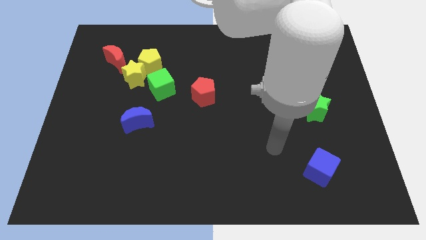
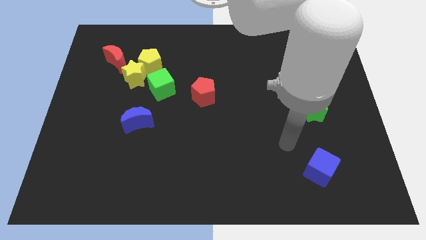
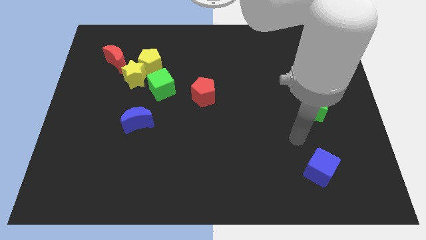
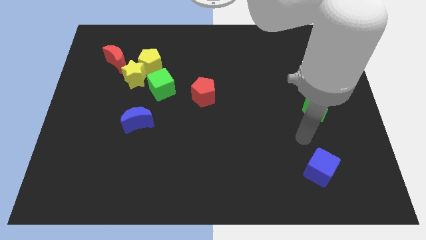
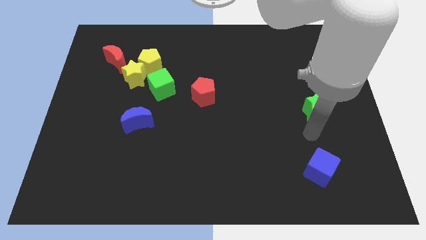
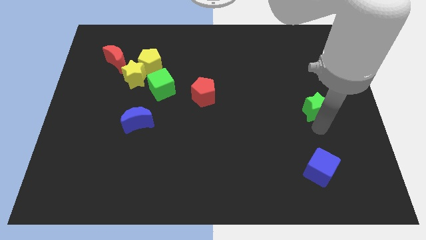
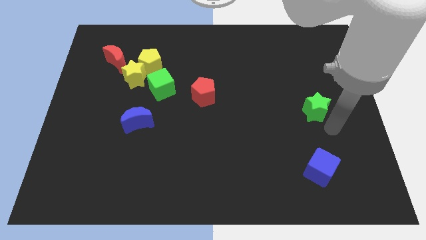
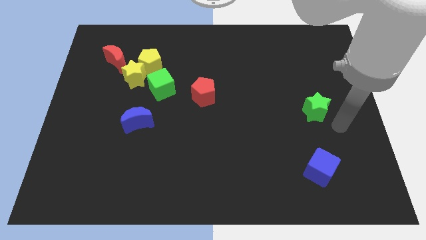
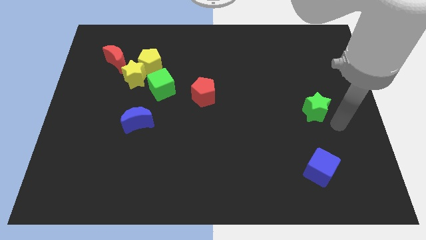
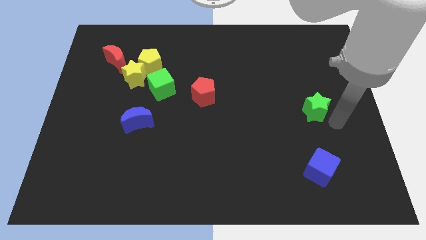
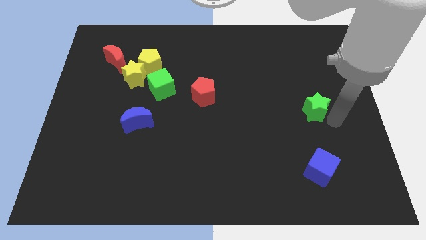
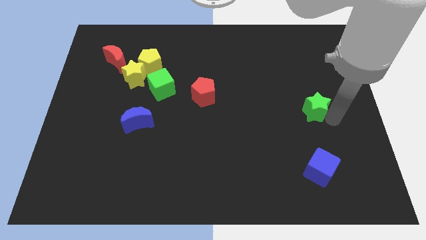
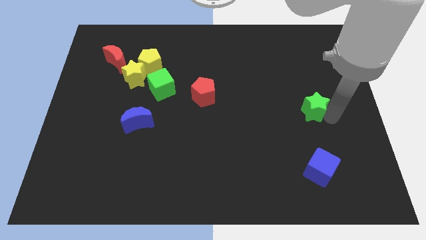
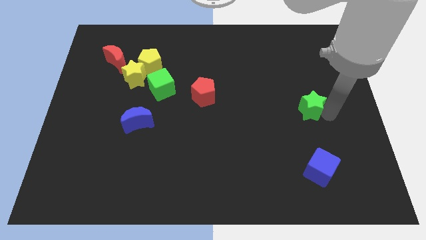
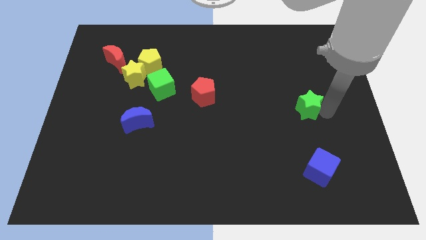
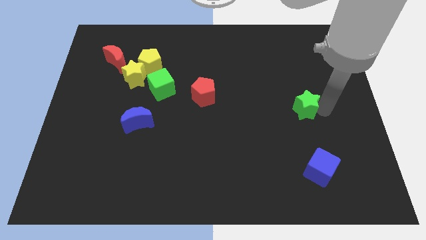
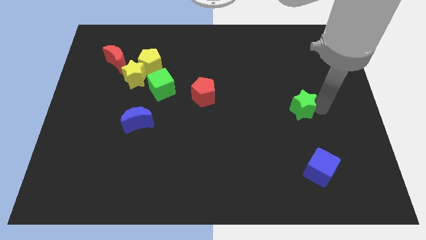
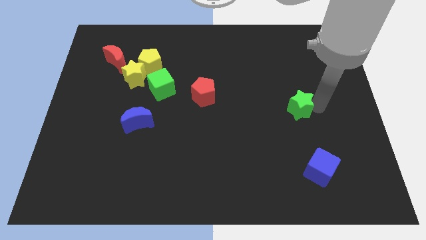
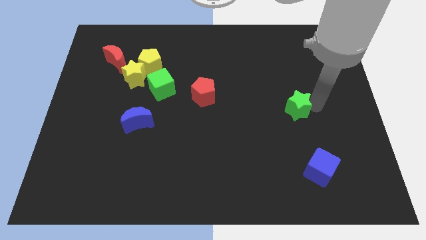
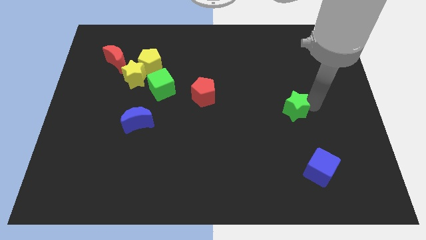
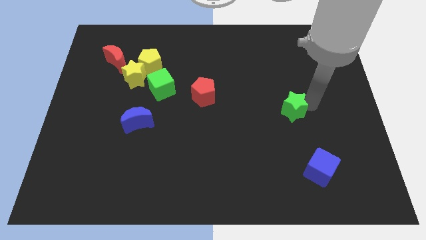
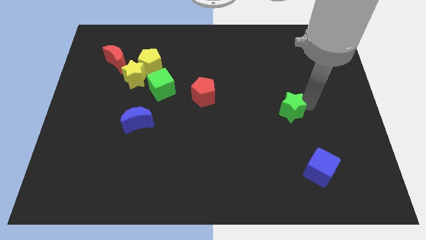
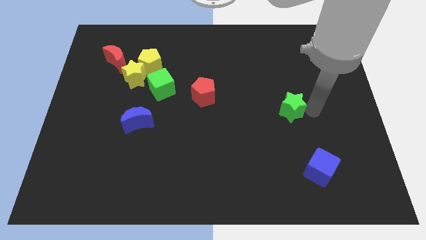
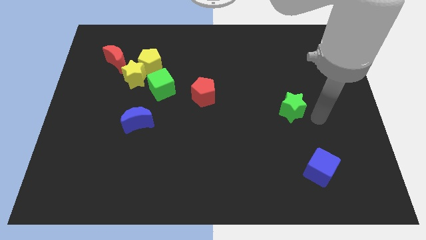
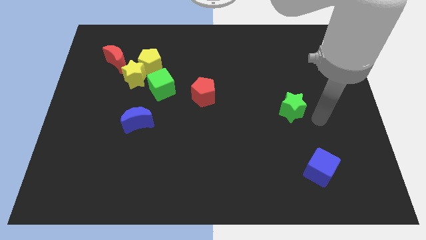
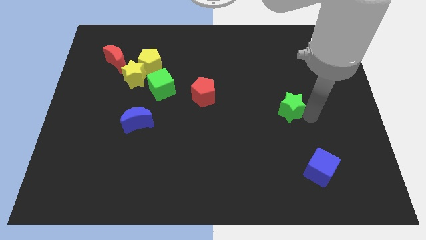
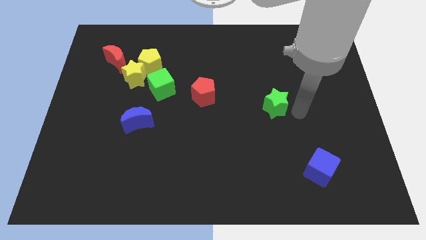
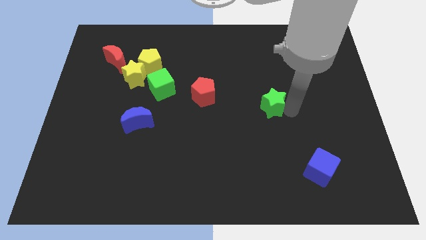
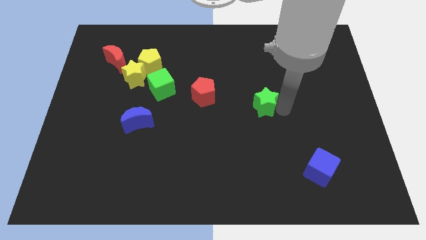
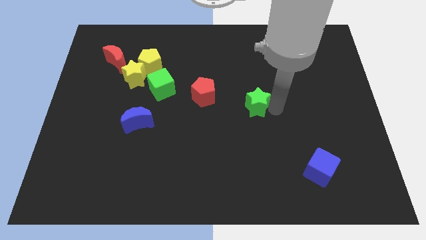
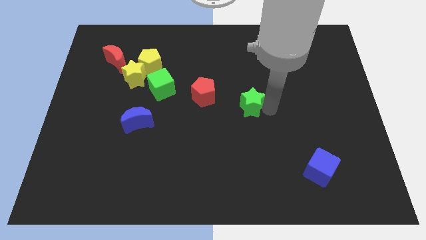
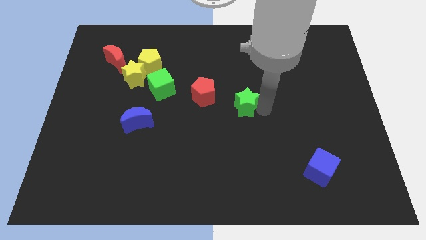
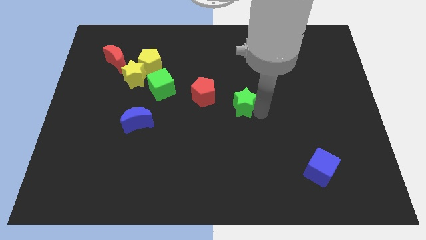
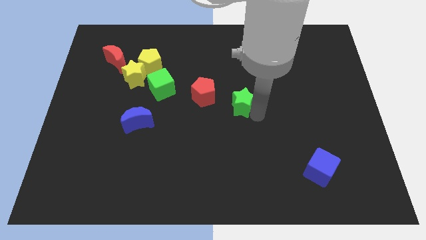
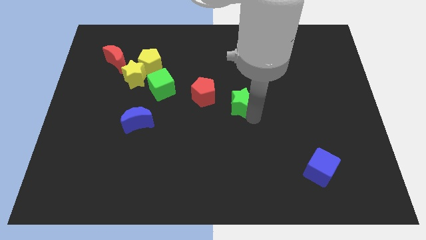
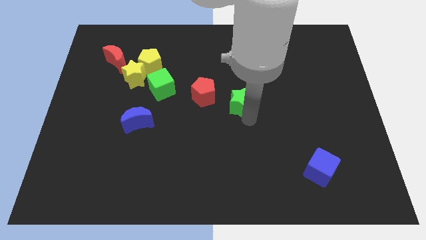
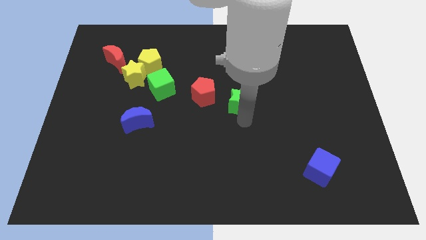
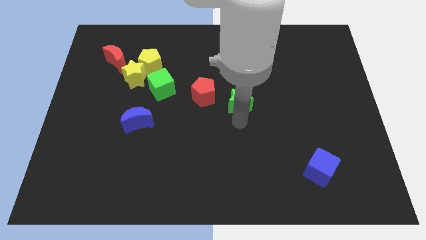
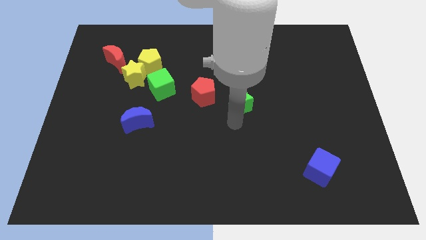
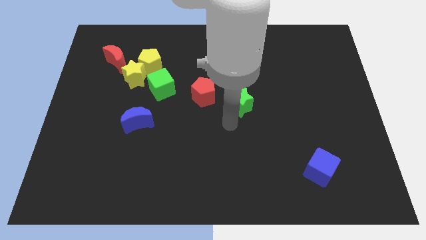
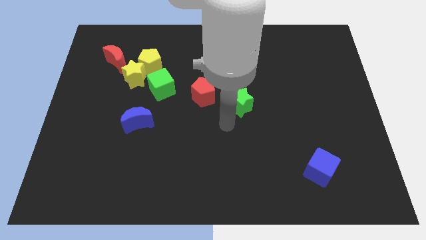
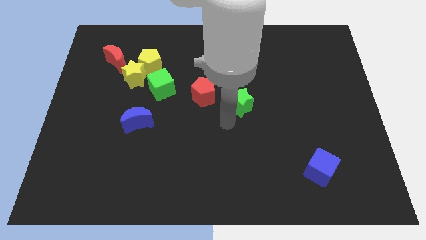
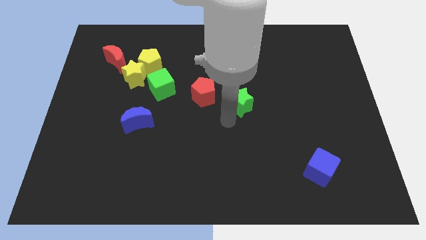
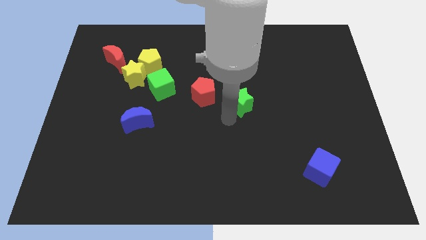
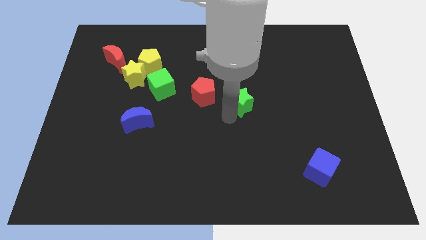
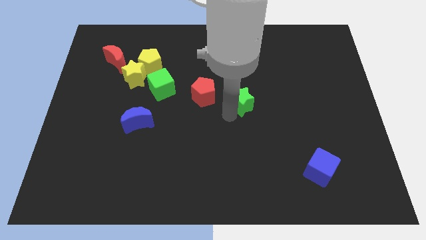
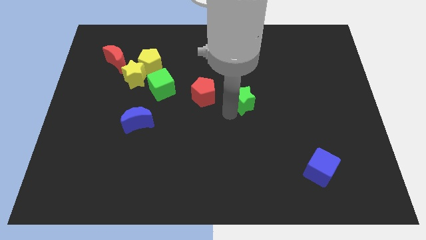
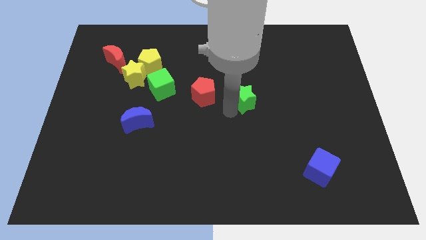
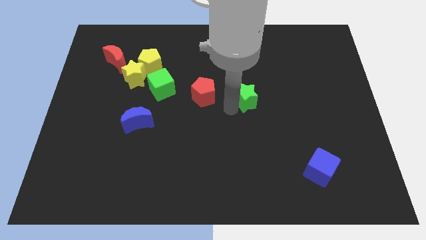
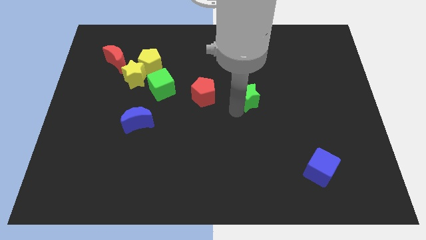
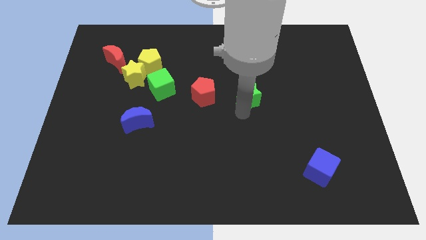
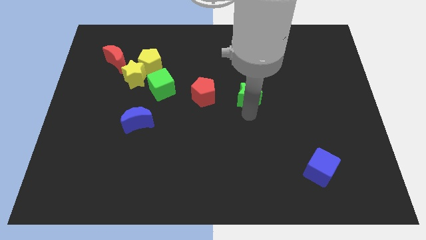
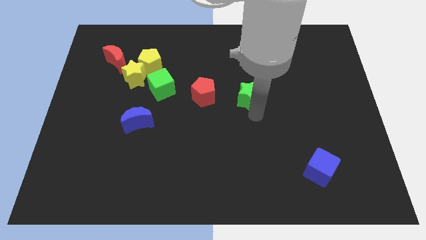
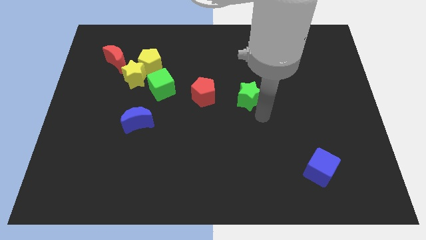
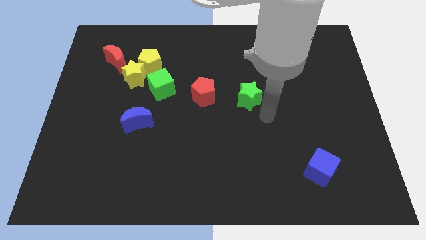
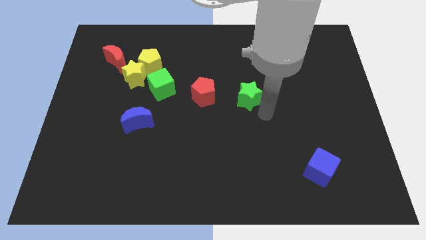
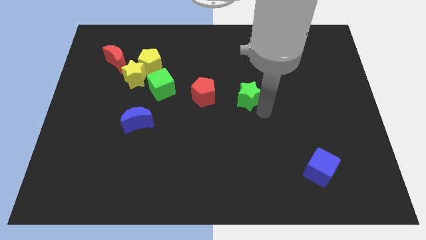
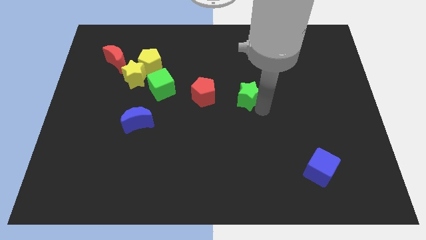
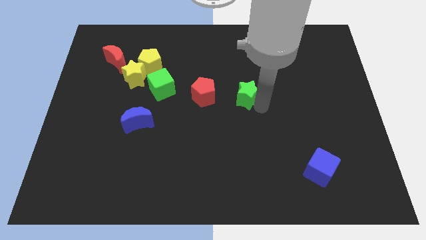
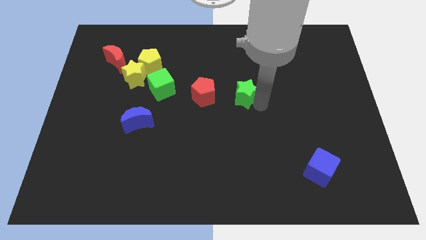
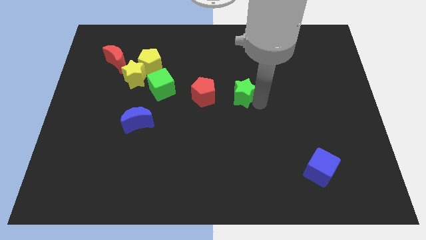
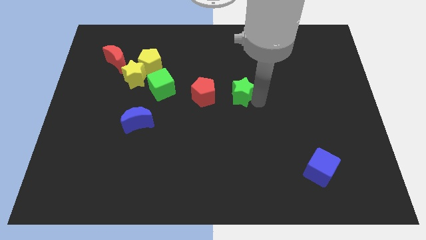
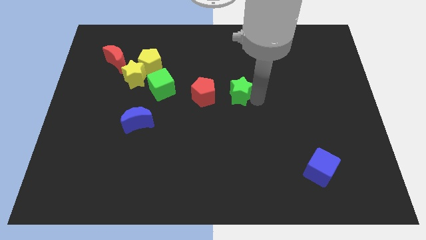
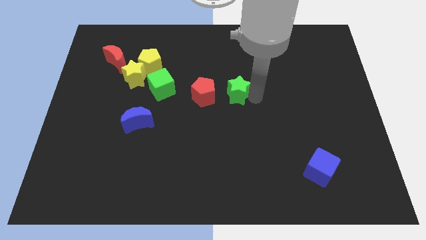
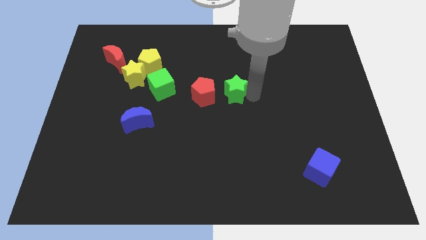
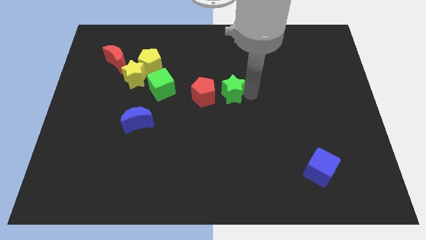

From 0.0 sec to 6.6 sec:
put the green star to the top right of the red pentagon

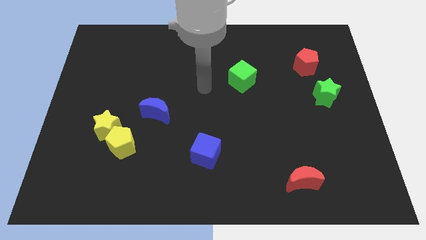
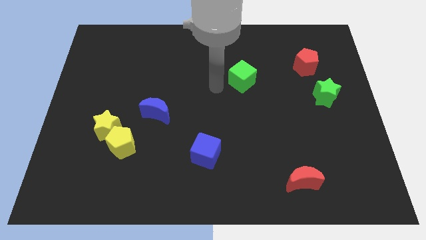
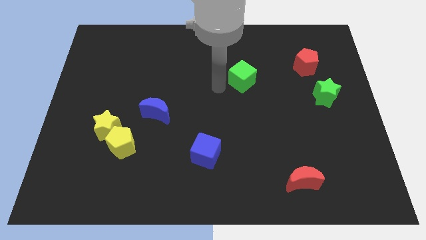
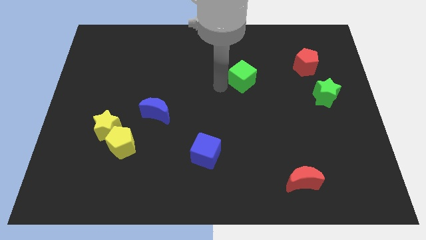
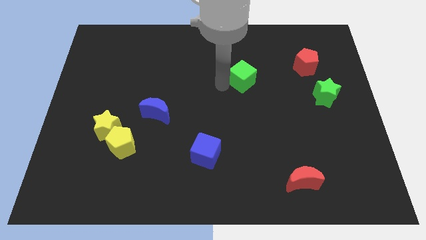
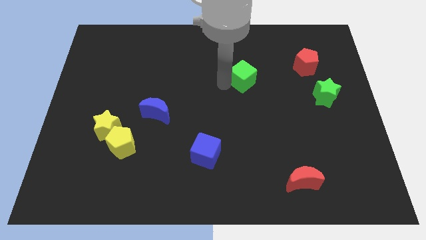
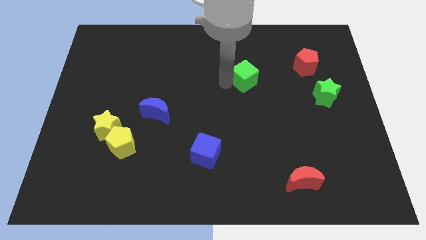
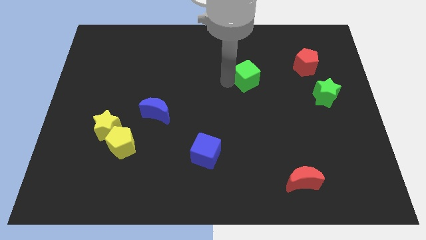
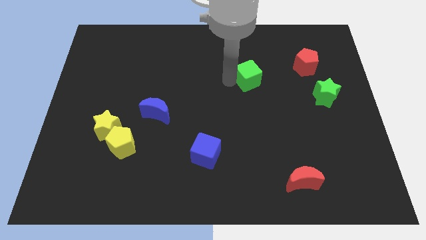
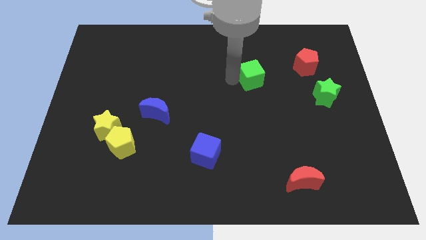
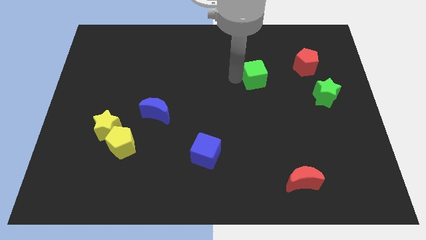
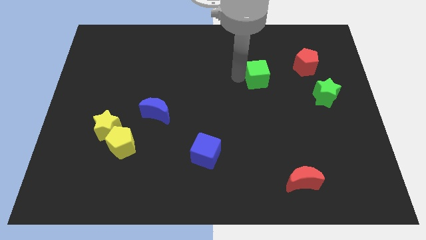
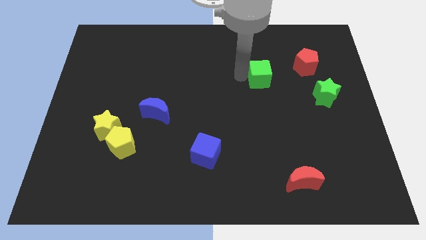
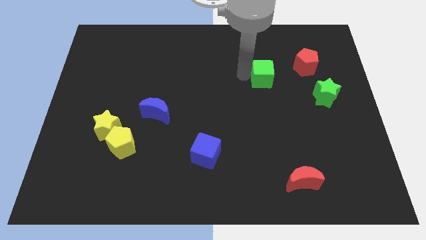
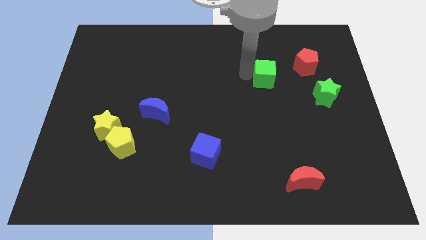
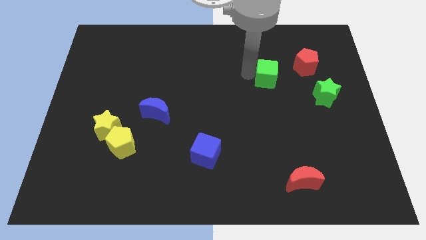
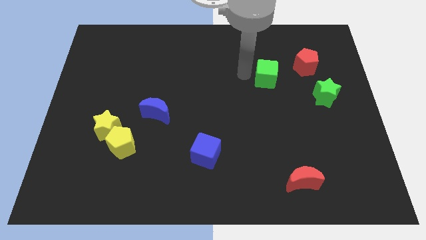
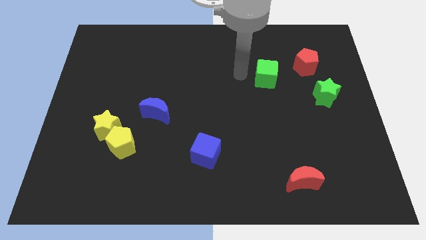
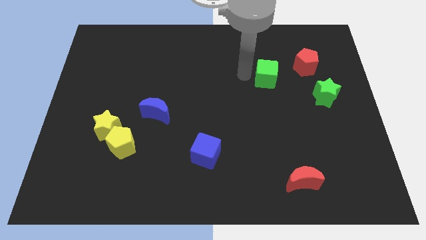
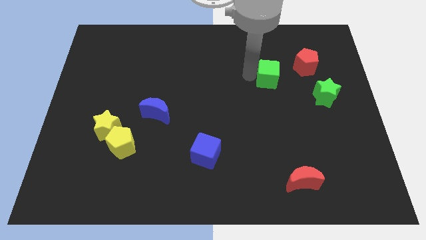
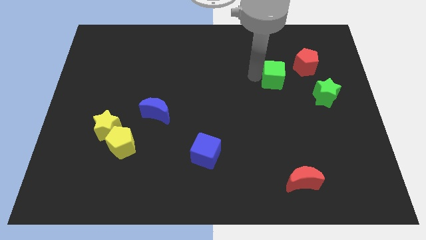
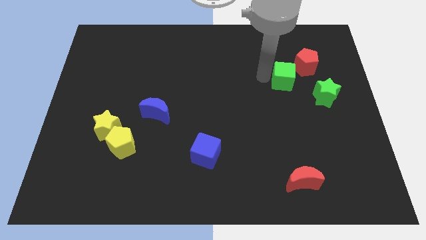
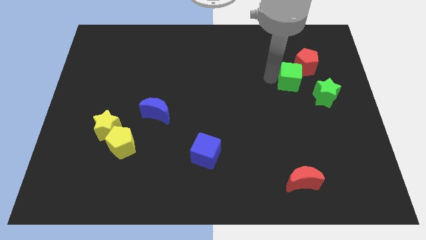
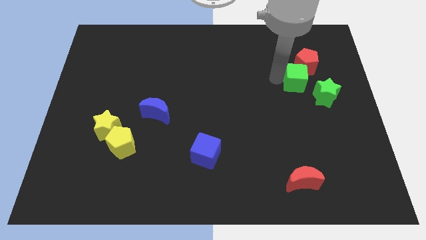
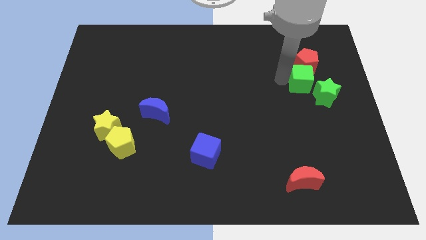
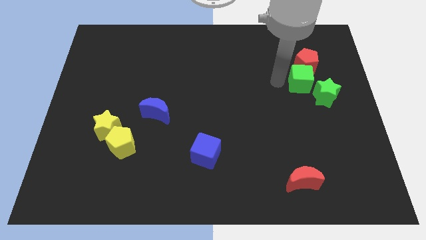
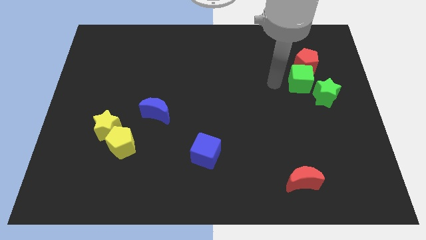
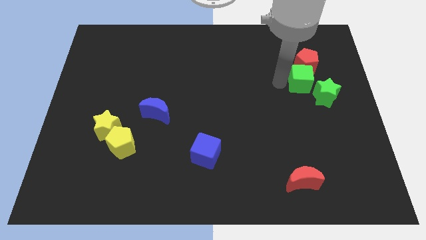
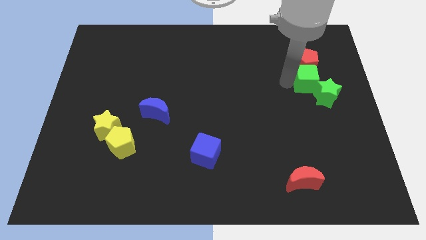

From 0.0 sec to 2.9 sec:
push the green cube to the bottom right of the red pentagon
